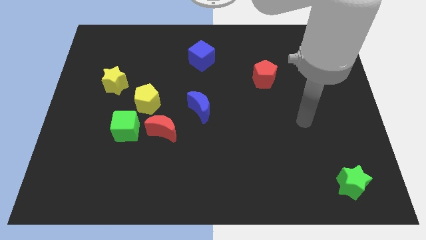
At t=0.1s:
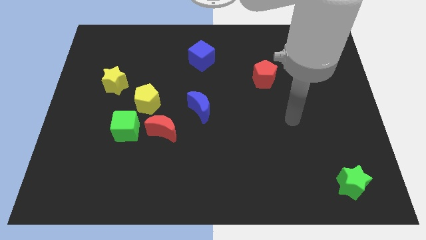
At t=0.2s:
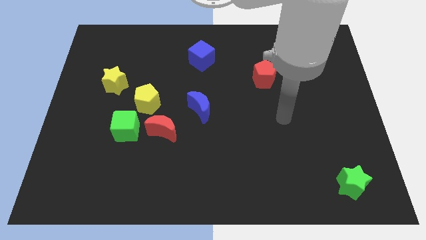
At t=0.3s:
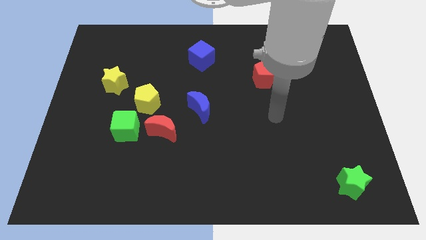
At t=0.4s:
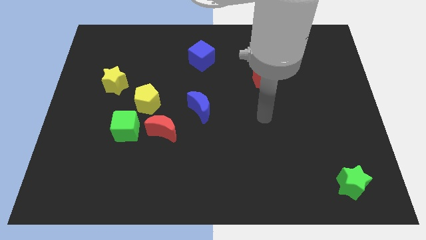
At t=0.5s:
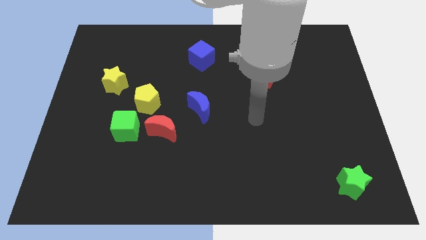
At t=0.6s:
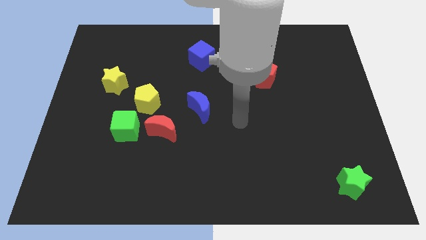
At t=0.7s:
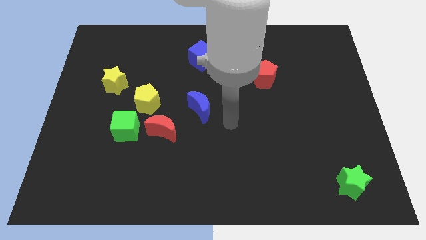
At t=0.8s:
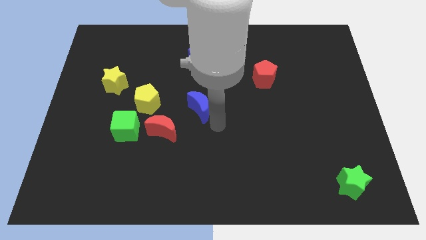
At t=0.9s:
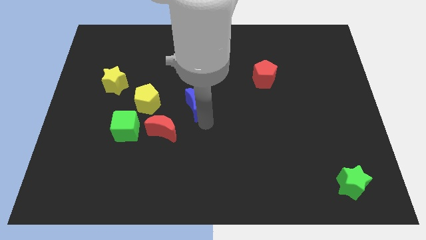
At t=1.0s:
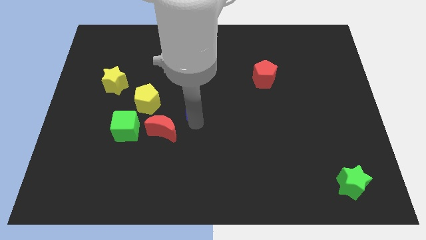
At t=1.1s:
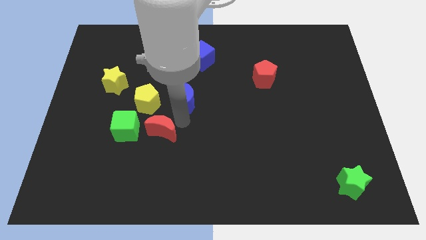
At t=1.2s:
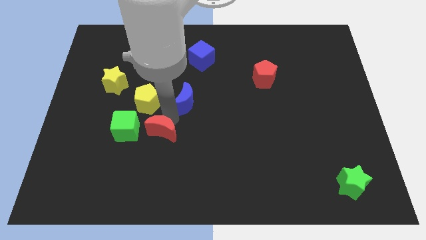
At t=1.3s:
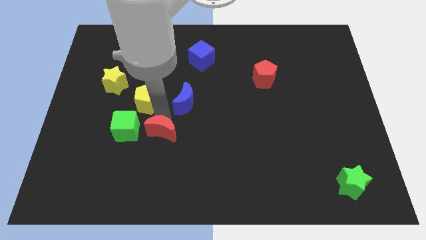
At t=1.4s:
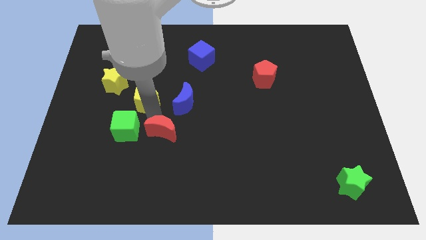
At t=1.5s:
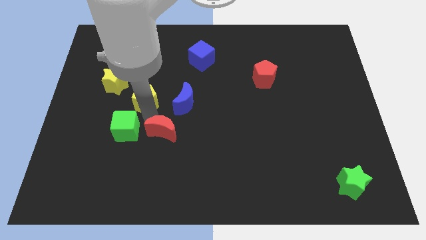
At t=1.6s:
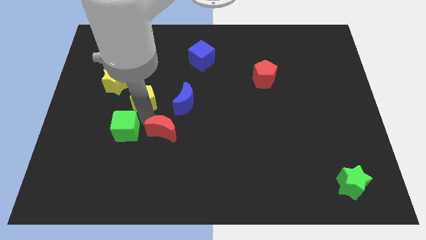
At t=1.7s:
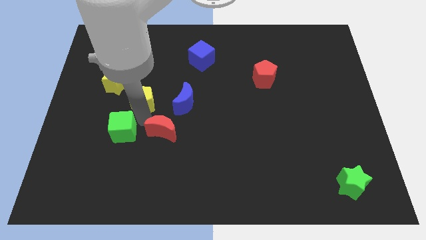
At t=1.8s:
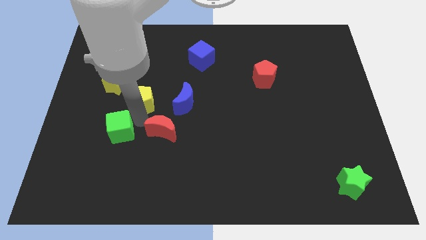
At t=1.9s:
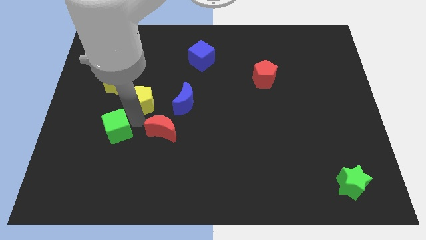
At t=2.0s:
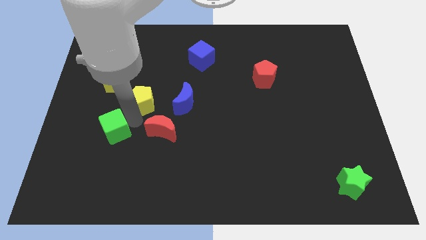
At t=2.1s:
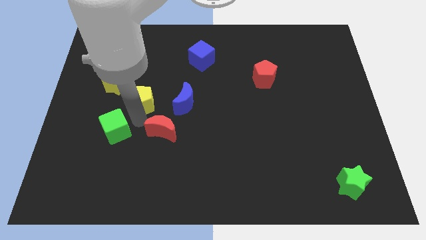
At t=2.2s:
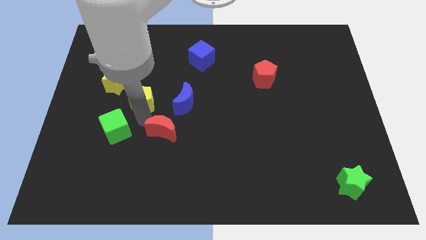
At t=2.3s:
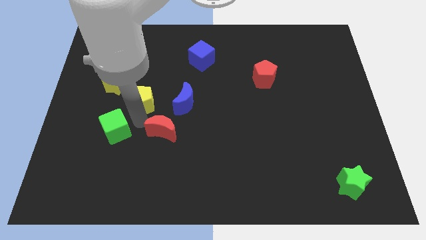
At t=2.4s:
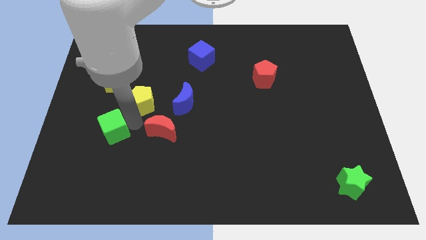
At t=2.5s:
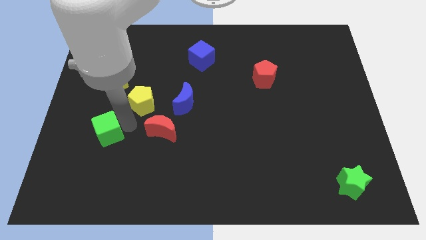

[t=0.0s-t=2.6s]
separate the green cube from the red moon and yellow pentagon

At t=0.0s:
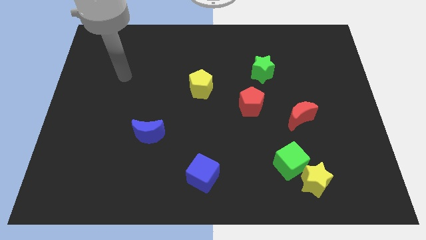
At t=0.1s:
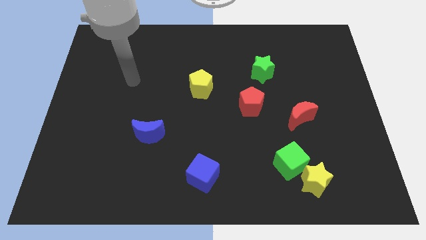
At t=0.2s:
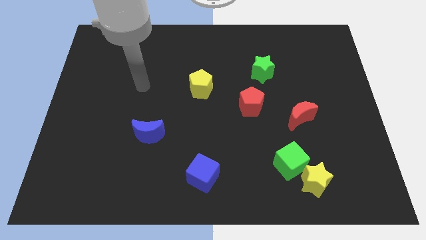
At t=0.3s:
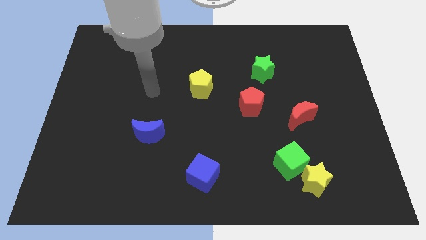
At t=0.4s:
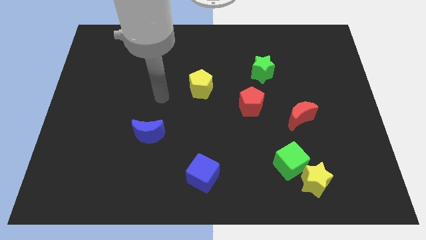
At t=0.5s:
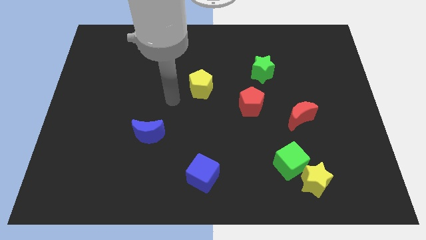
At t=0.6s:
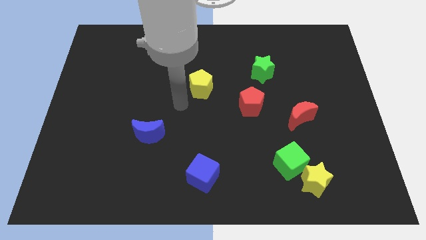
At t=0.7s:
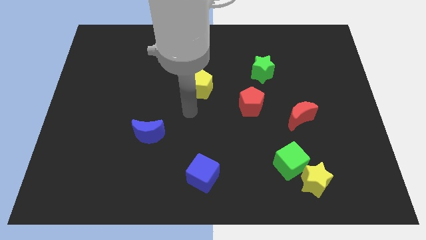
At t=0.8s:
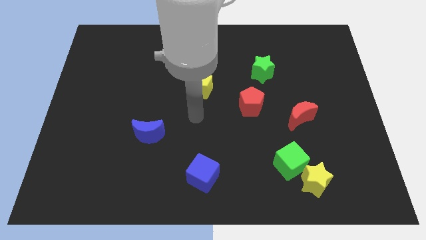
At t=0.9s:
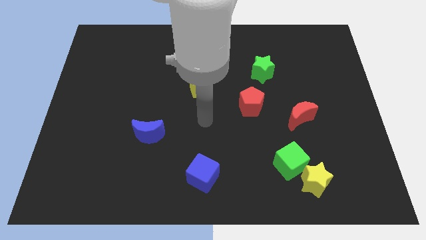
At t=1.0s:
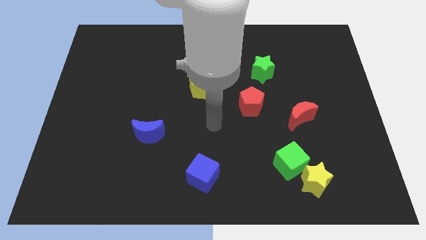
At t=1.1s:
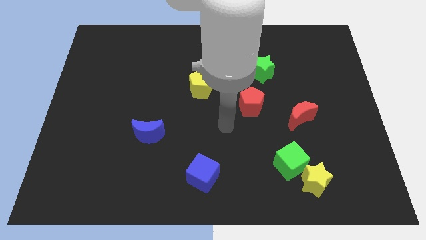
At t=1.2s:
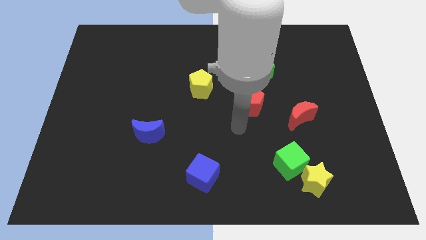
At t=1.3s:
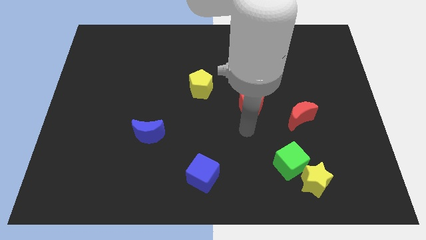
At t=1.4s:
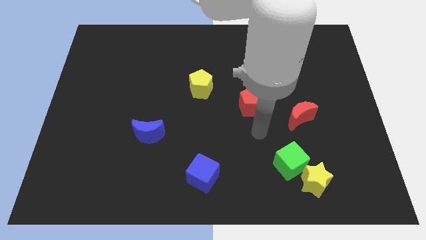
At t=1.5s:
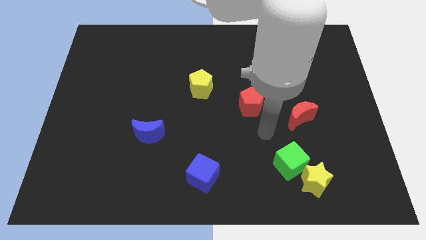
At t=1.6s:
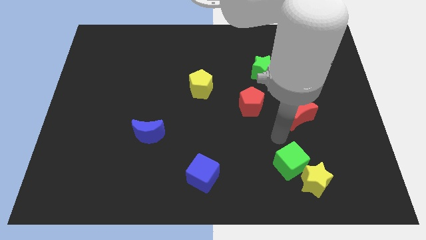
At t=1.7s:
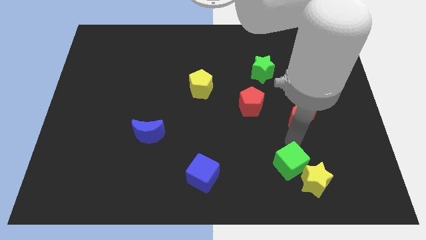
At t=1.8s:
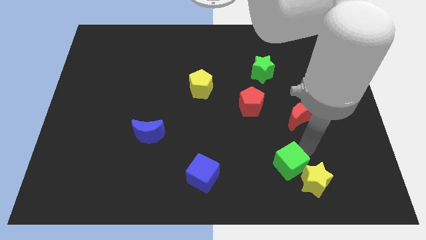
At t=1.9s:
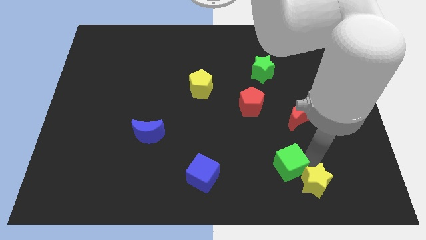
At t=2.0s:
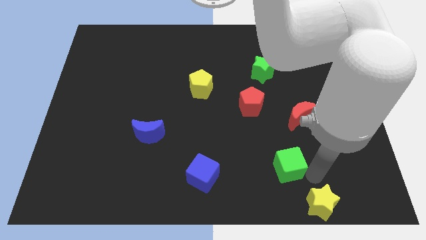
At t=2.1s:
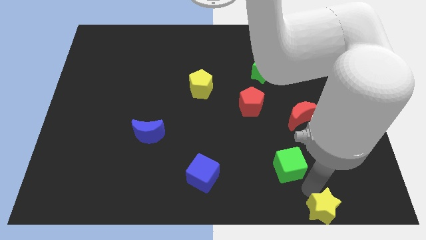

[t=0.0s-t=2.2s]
pull the green cube apart from the yellow star

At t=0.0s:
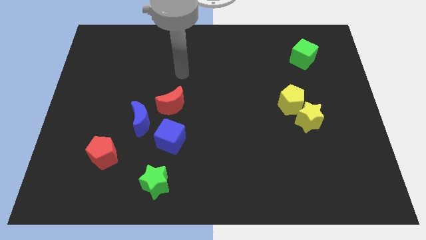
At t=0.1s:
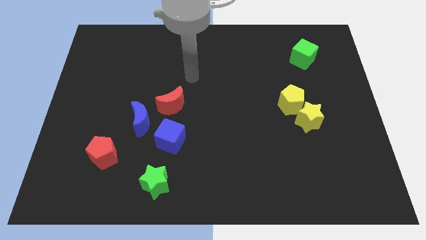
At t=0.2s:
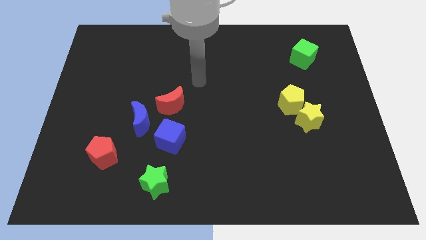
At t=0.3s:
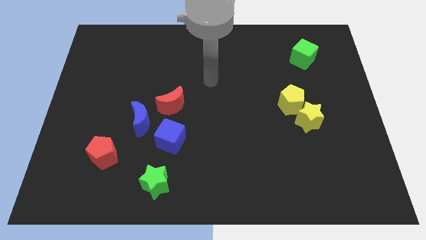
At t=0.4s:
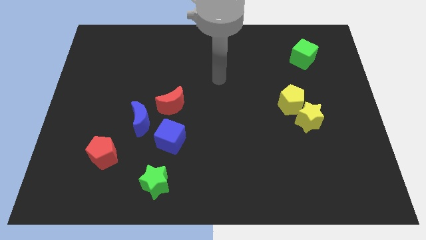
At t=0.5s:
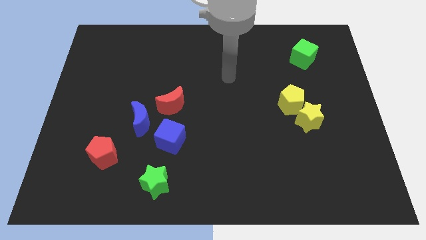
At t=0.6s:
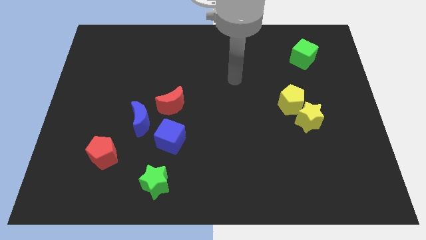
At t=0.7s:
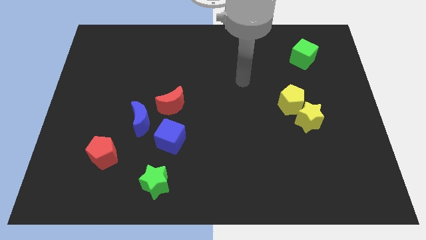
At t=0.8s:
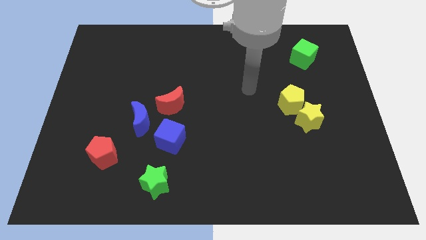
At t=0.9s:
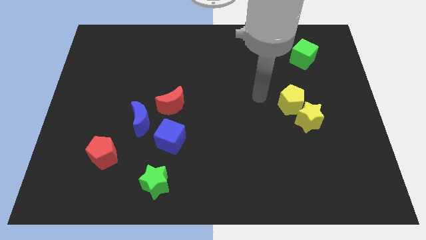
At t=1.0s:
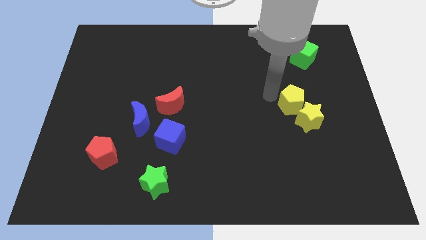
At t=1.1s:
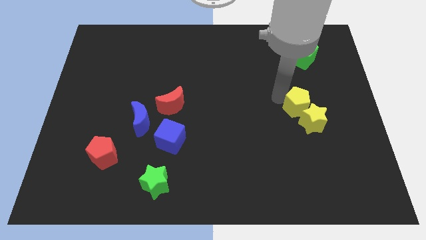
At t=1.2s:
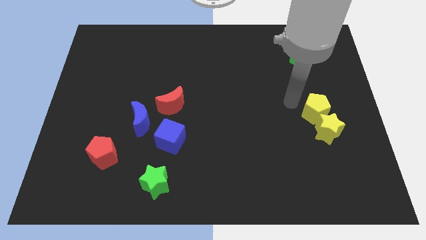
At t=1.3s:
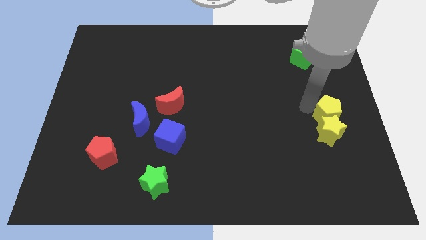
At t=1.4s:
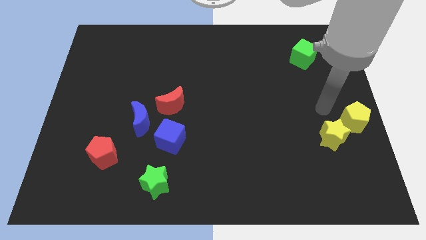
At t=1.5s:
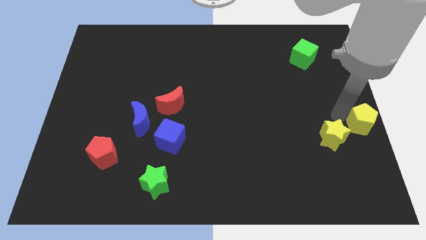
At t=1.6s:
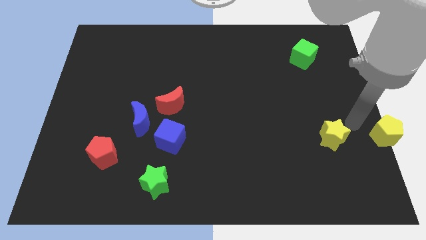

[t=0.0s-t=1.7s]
separate the yellow star from the yellow pentagon

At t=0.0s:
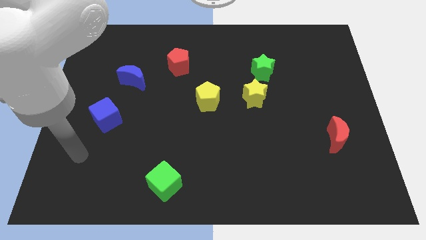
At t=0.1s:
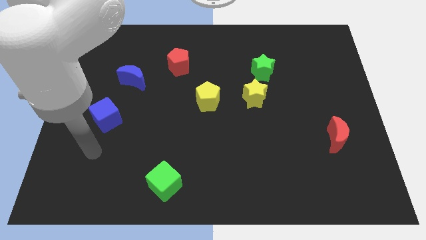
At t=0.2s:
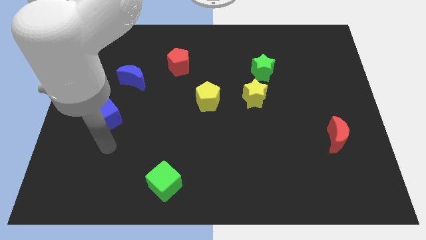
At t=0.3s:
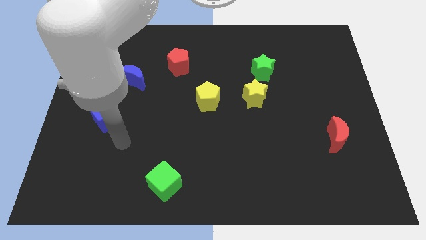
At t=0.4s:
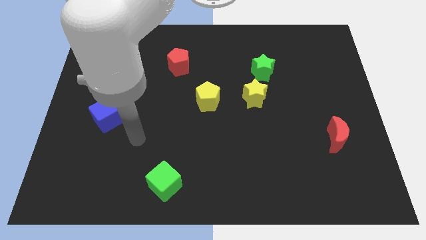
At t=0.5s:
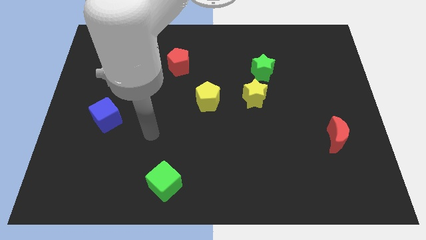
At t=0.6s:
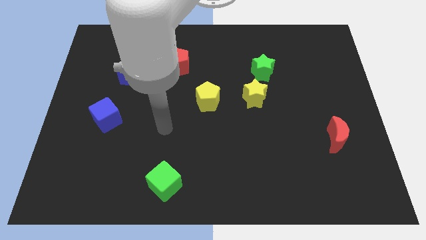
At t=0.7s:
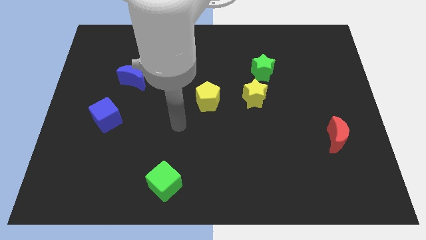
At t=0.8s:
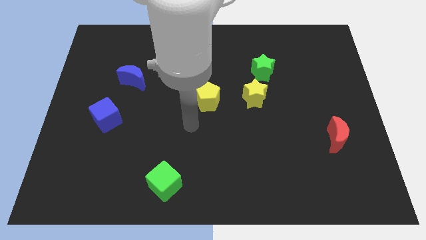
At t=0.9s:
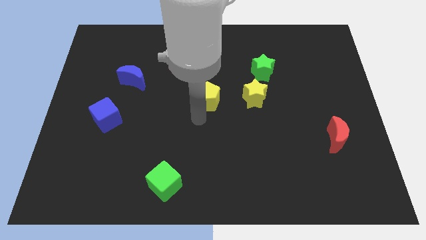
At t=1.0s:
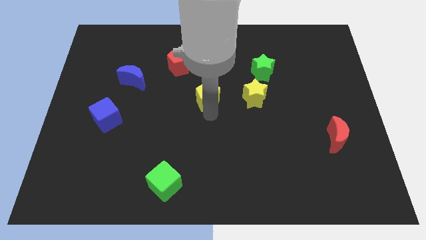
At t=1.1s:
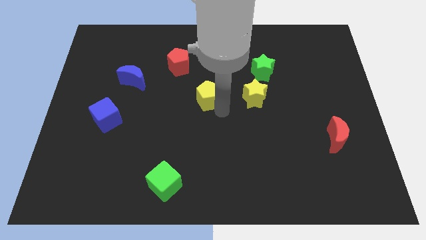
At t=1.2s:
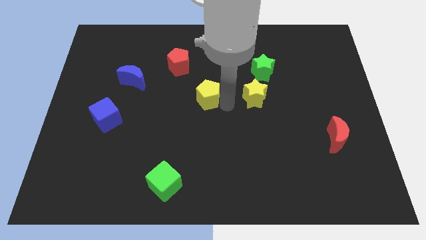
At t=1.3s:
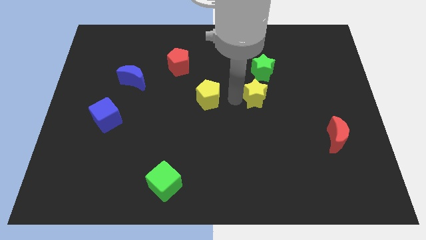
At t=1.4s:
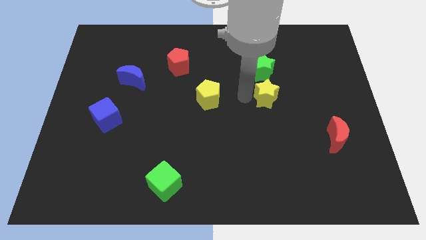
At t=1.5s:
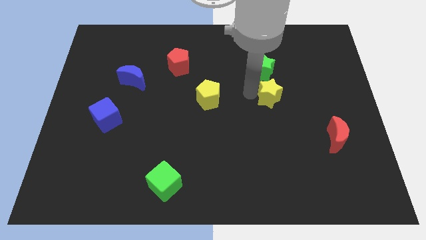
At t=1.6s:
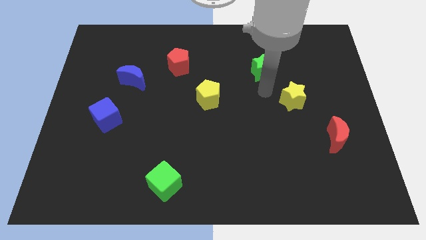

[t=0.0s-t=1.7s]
move the green star away from the yellow star

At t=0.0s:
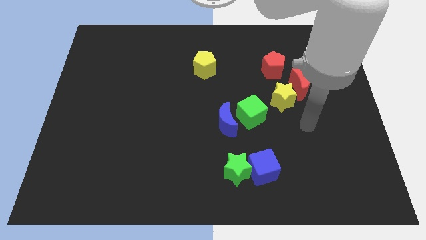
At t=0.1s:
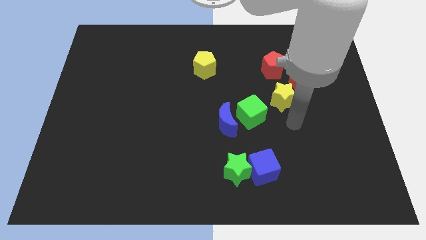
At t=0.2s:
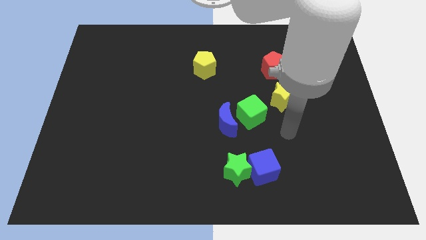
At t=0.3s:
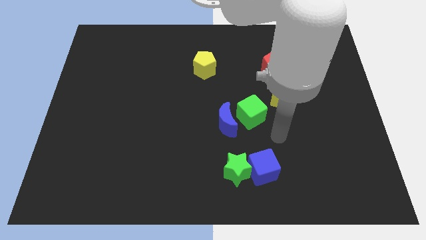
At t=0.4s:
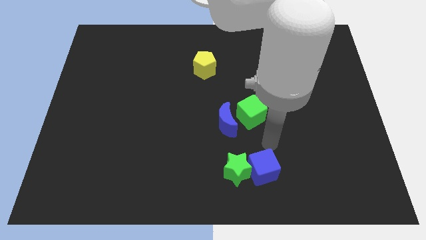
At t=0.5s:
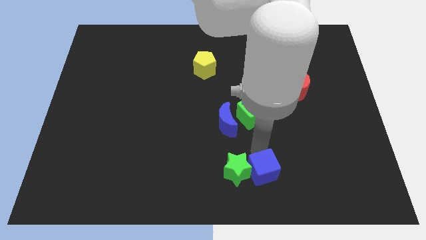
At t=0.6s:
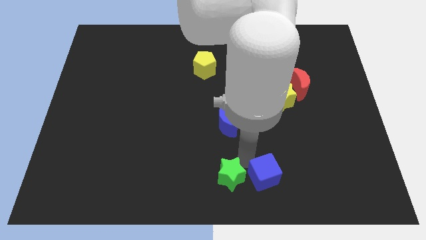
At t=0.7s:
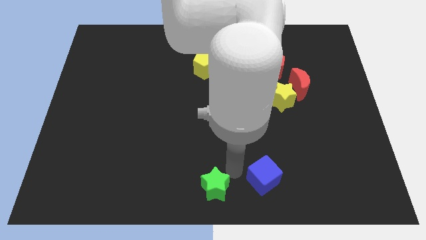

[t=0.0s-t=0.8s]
move the blue cube away from the green star
